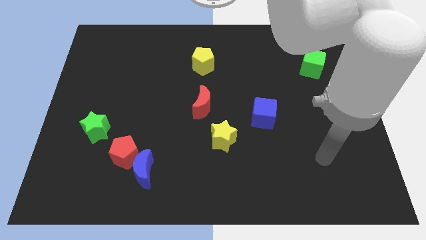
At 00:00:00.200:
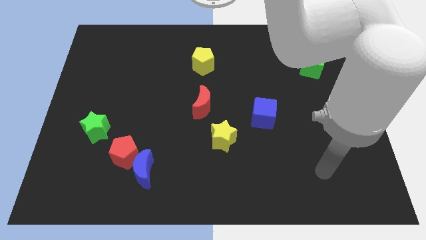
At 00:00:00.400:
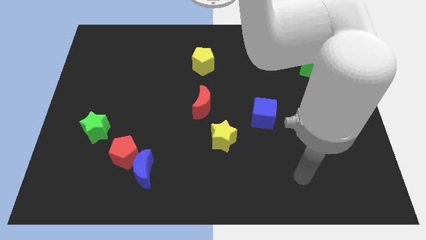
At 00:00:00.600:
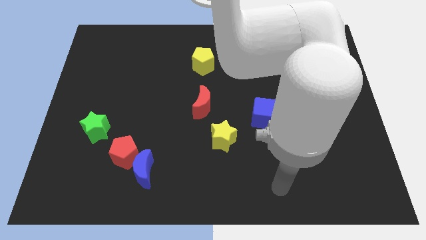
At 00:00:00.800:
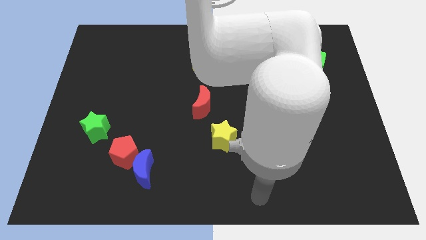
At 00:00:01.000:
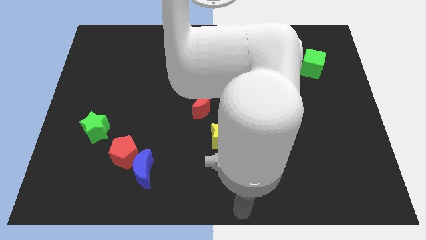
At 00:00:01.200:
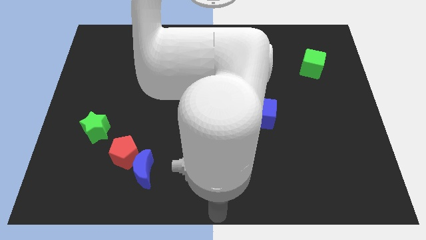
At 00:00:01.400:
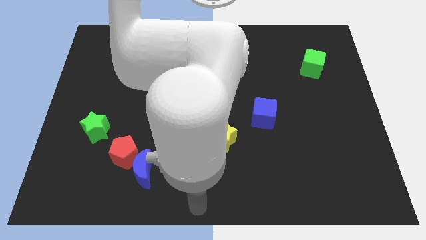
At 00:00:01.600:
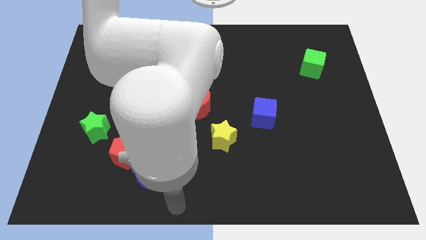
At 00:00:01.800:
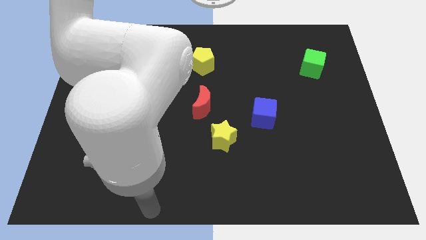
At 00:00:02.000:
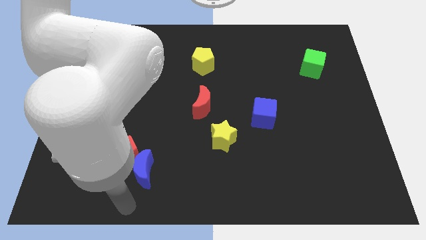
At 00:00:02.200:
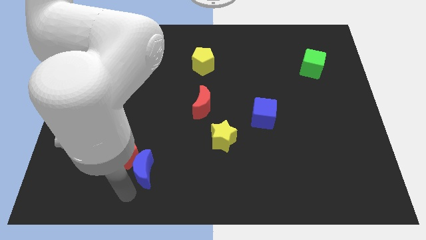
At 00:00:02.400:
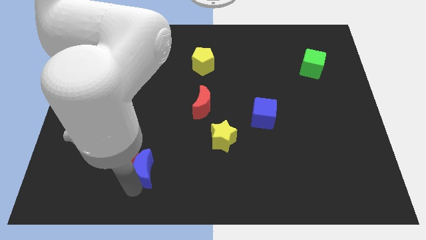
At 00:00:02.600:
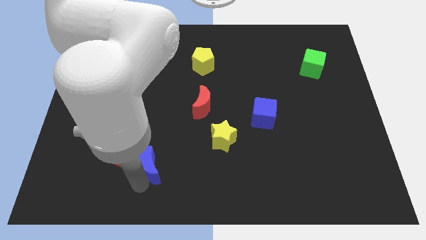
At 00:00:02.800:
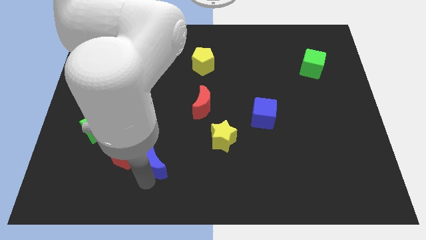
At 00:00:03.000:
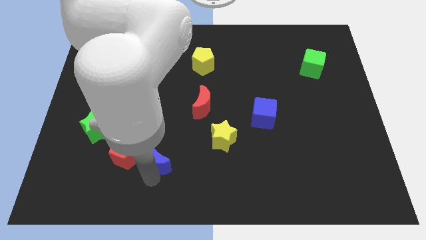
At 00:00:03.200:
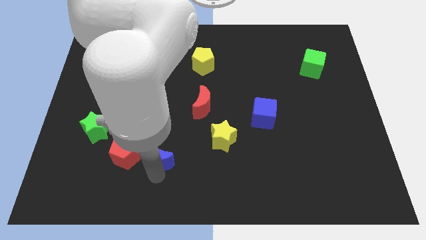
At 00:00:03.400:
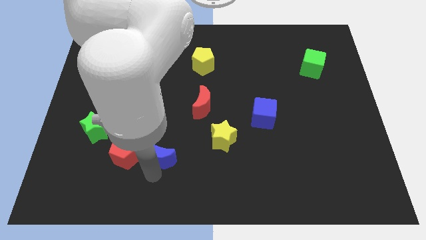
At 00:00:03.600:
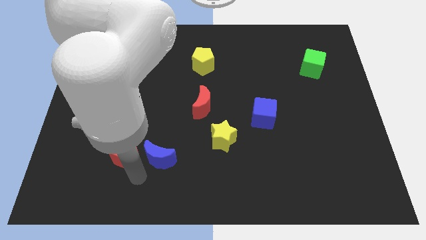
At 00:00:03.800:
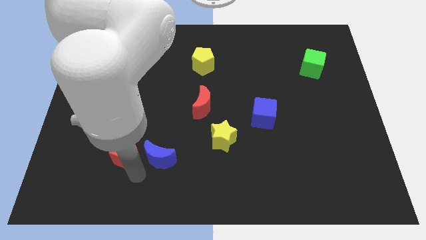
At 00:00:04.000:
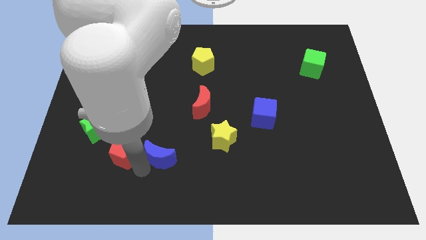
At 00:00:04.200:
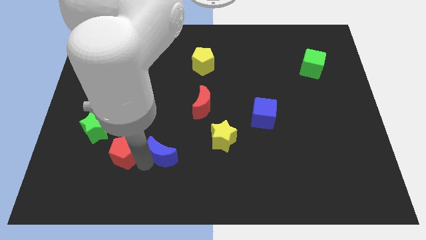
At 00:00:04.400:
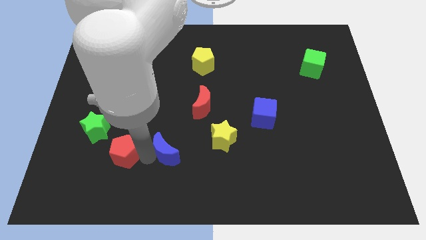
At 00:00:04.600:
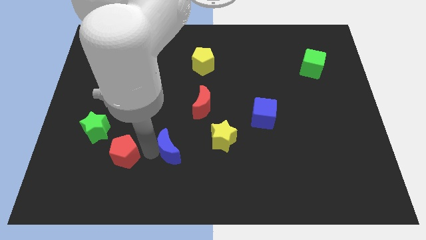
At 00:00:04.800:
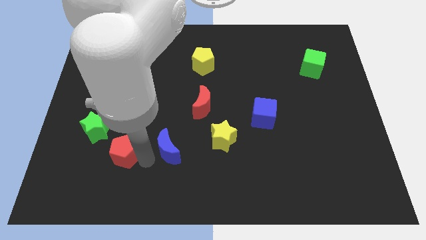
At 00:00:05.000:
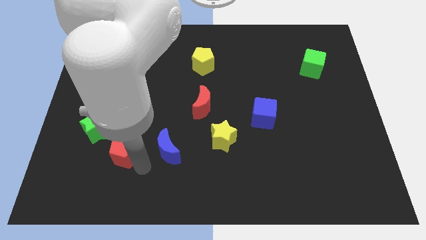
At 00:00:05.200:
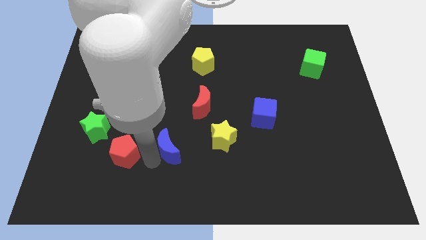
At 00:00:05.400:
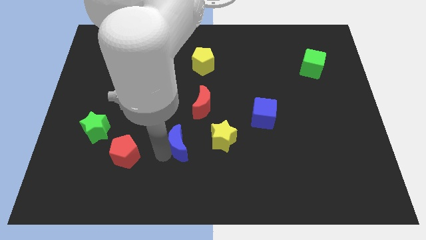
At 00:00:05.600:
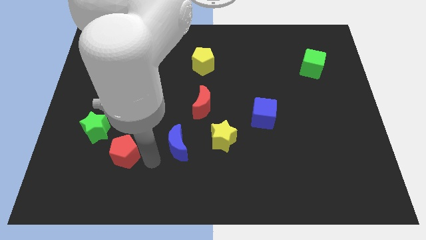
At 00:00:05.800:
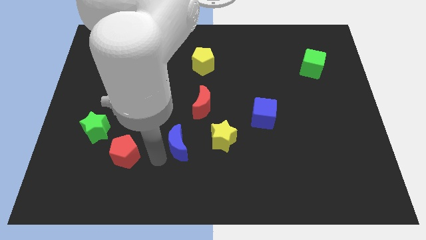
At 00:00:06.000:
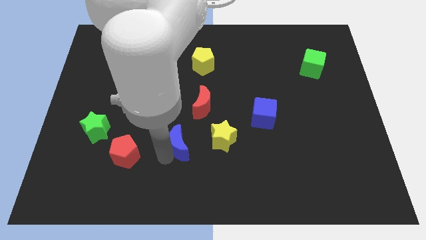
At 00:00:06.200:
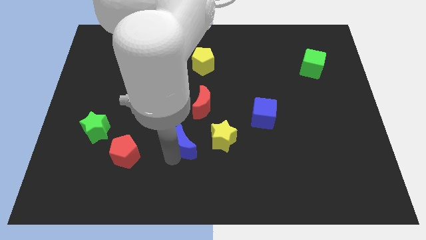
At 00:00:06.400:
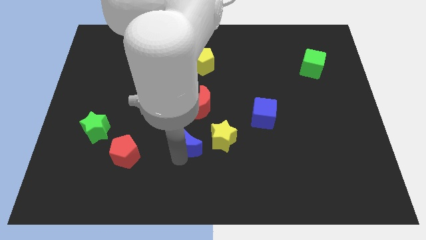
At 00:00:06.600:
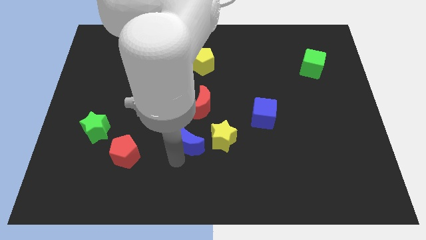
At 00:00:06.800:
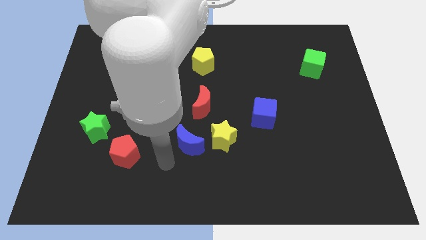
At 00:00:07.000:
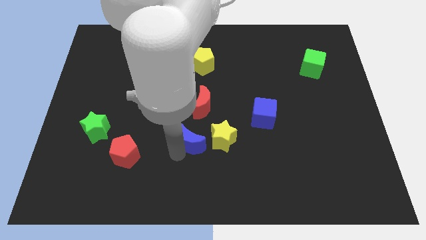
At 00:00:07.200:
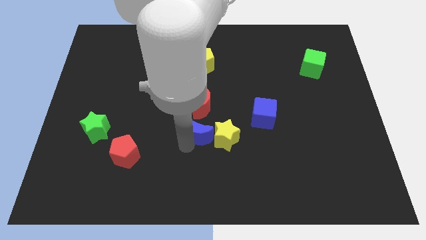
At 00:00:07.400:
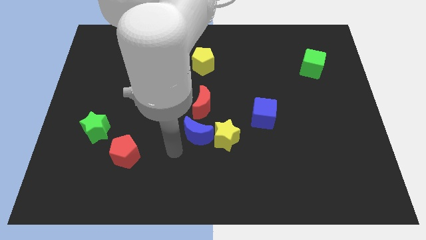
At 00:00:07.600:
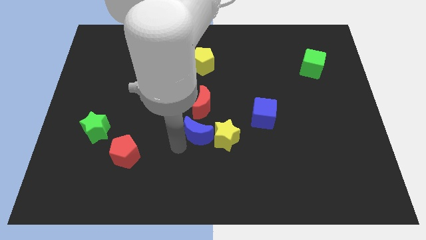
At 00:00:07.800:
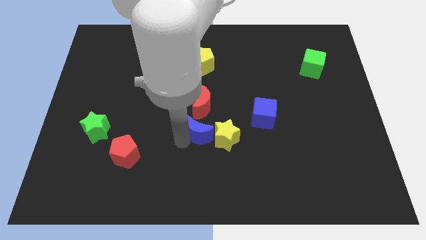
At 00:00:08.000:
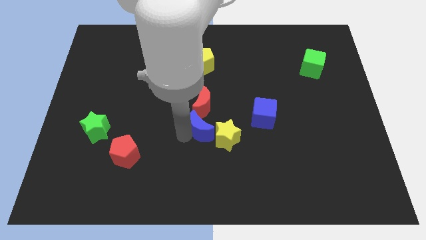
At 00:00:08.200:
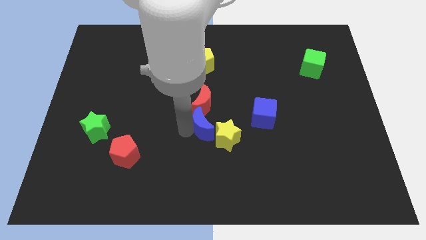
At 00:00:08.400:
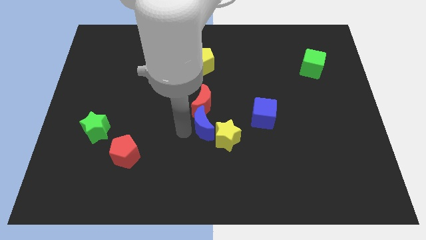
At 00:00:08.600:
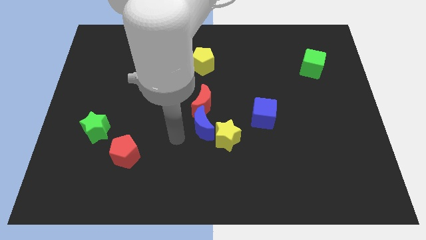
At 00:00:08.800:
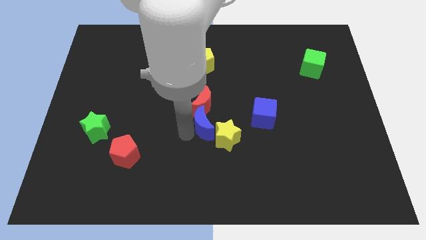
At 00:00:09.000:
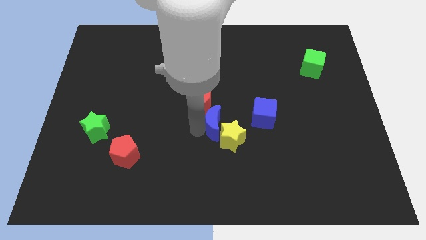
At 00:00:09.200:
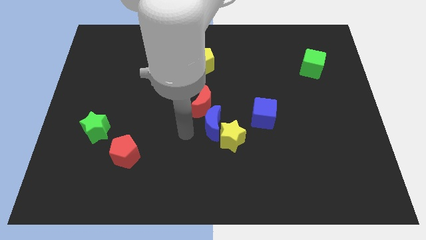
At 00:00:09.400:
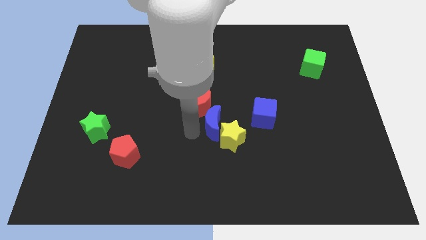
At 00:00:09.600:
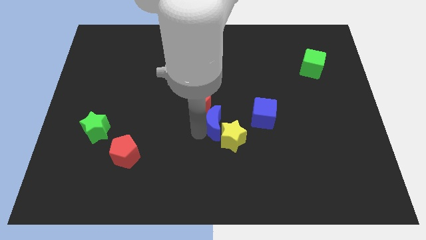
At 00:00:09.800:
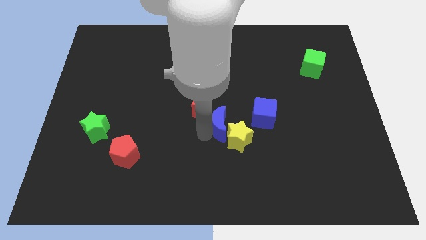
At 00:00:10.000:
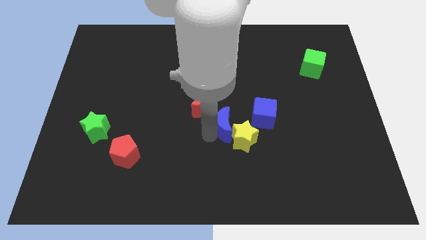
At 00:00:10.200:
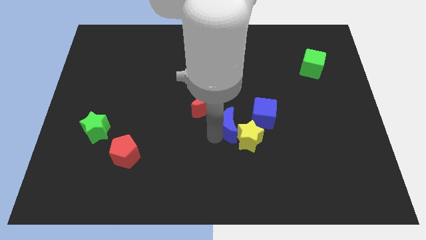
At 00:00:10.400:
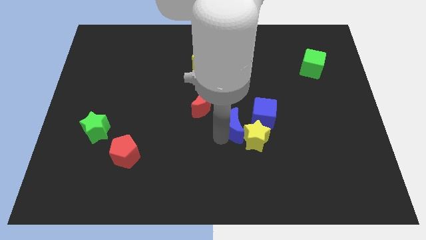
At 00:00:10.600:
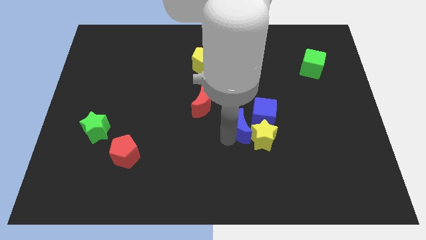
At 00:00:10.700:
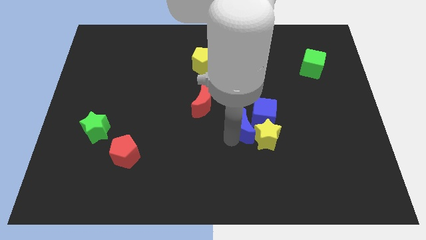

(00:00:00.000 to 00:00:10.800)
push the blue moon to the blue cube

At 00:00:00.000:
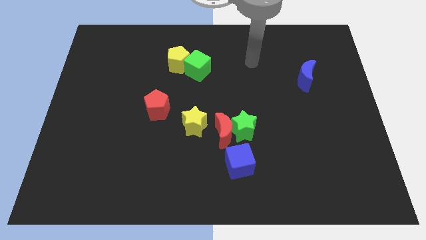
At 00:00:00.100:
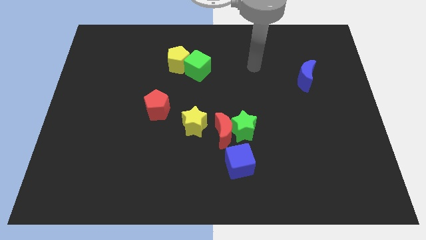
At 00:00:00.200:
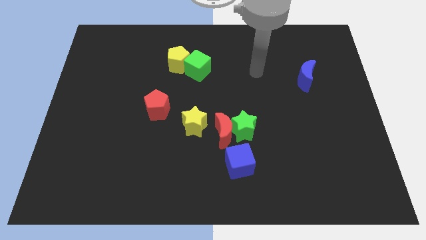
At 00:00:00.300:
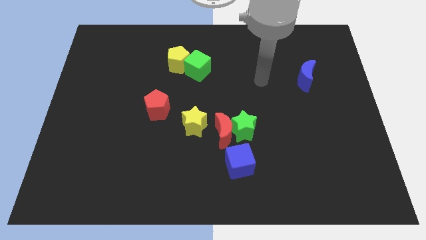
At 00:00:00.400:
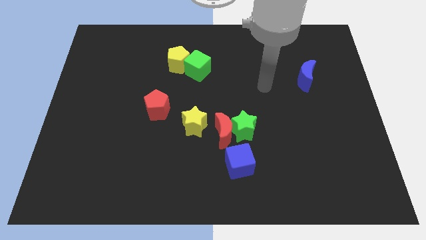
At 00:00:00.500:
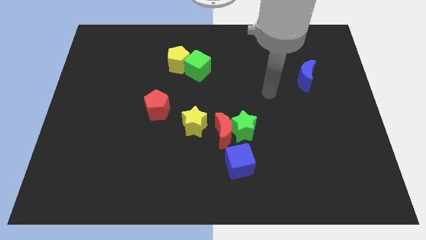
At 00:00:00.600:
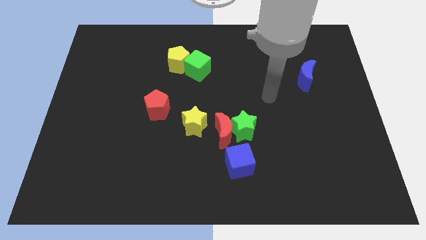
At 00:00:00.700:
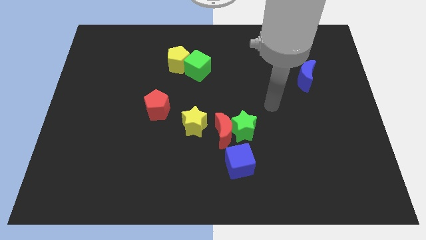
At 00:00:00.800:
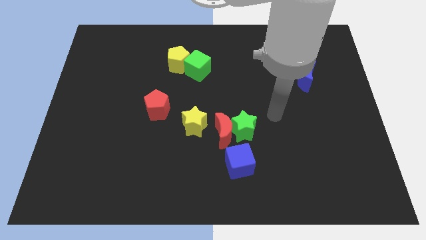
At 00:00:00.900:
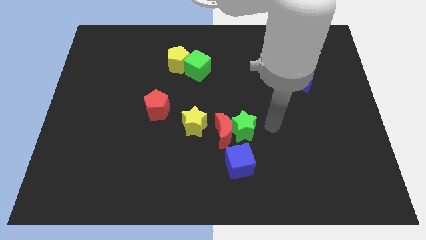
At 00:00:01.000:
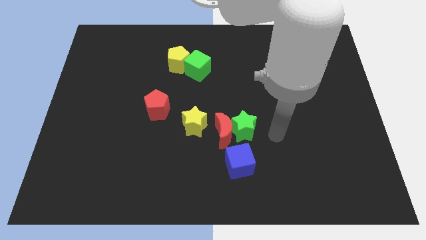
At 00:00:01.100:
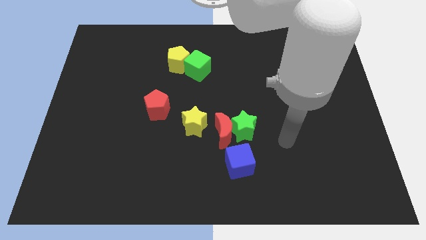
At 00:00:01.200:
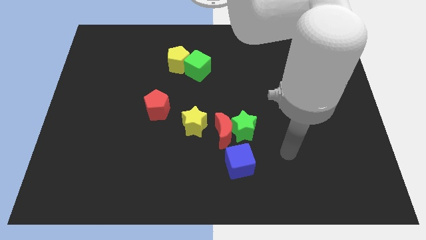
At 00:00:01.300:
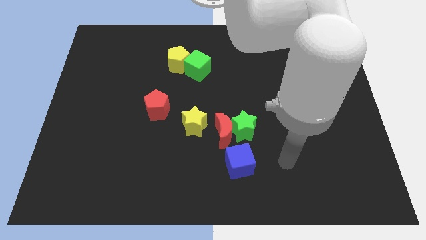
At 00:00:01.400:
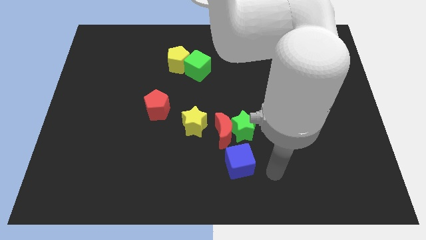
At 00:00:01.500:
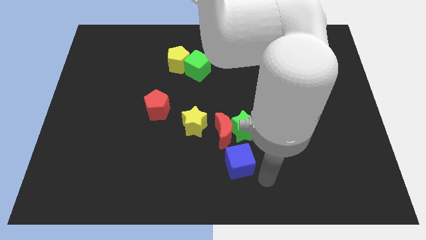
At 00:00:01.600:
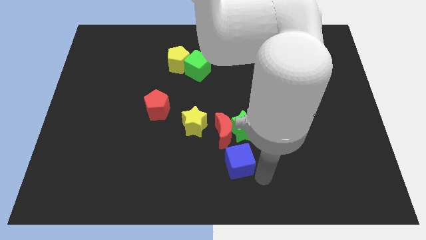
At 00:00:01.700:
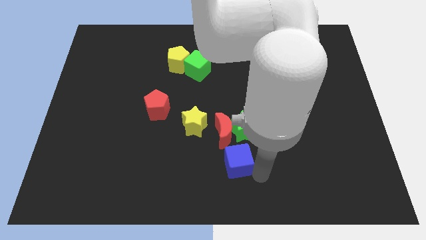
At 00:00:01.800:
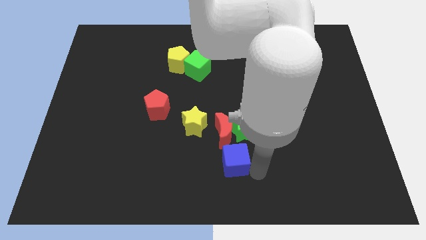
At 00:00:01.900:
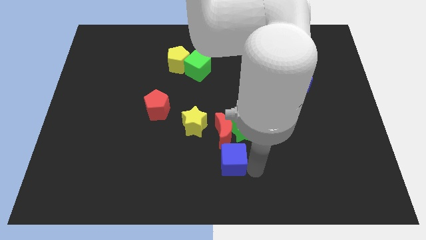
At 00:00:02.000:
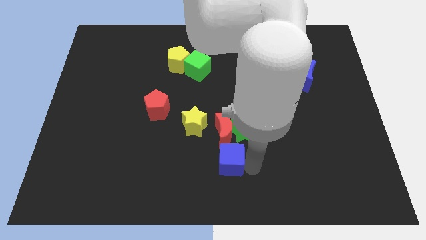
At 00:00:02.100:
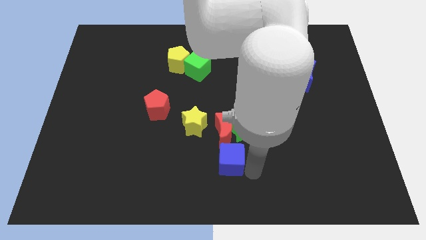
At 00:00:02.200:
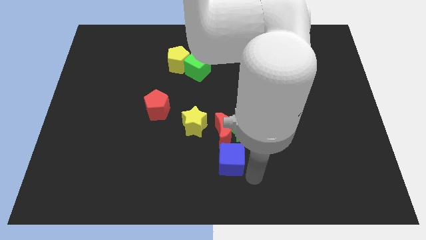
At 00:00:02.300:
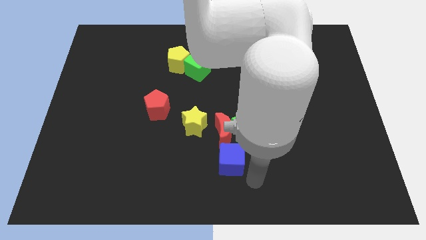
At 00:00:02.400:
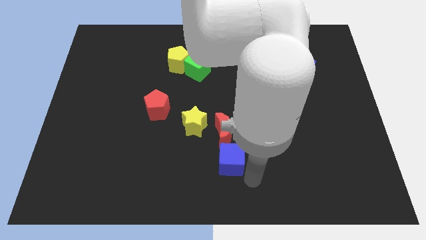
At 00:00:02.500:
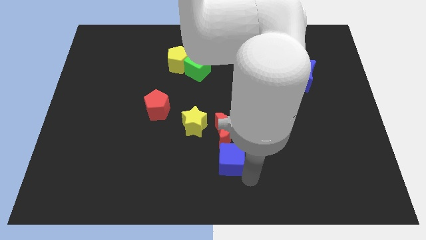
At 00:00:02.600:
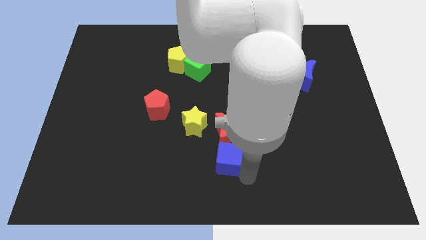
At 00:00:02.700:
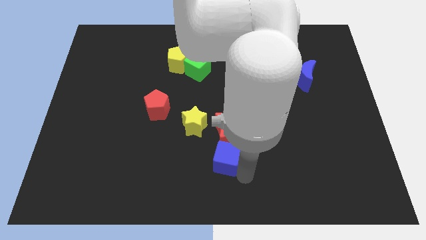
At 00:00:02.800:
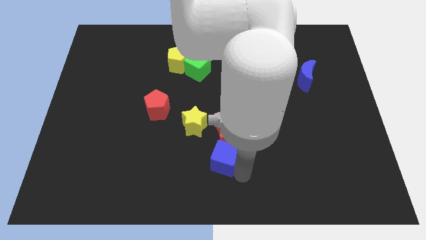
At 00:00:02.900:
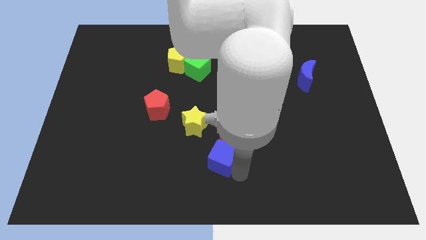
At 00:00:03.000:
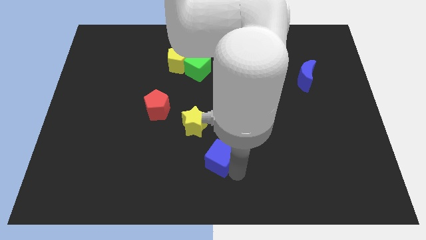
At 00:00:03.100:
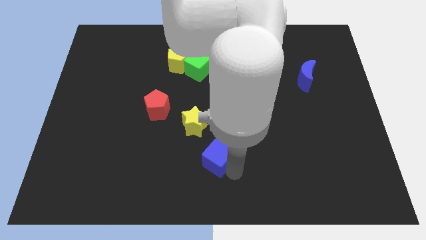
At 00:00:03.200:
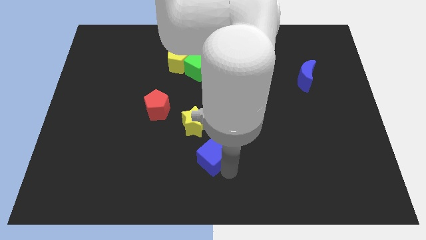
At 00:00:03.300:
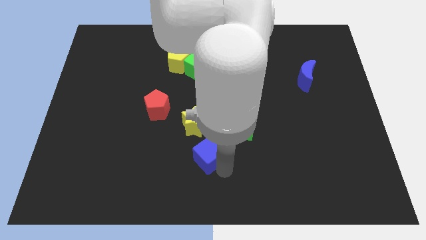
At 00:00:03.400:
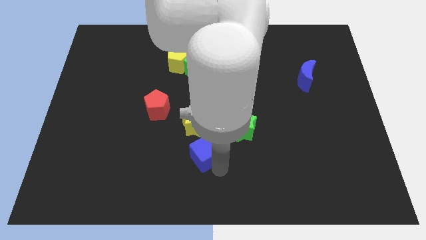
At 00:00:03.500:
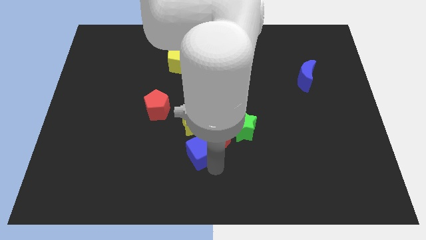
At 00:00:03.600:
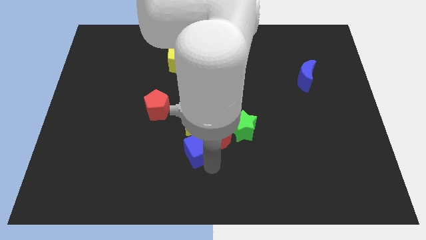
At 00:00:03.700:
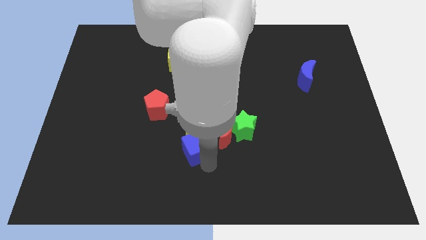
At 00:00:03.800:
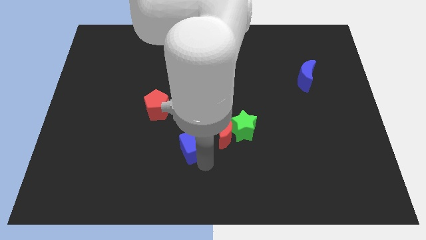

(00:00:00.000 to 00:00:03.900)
push the blue cube next to the yellow star
